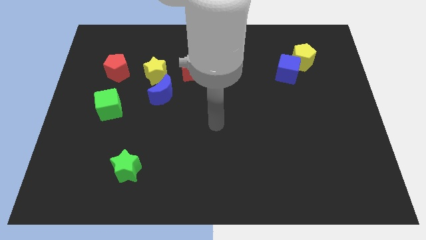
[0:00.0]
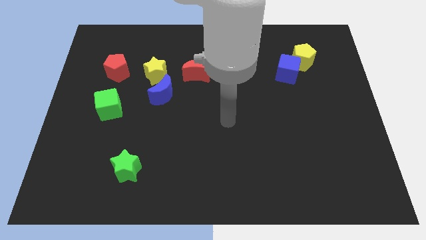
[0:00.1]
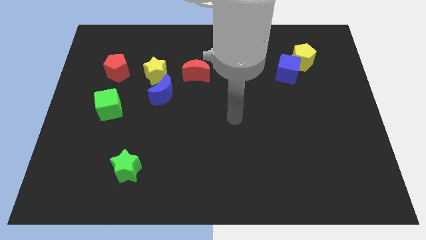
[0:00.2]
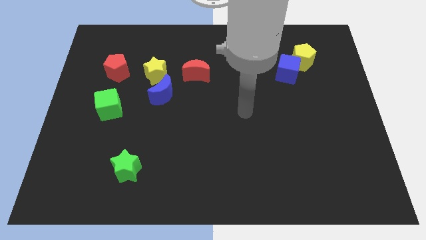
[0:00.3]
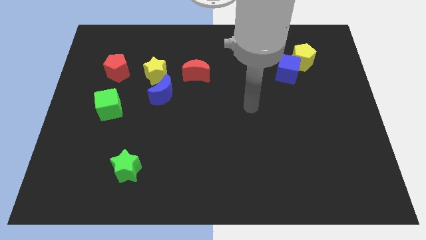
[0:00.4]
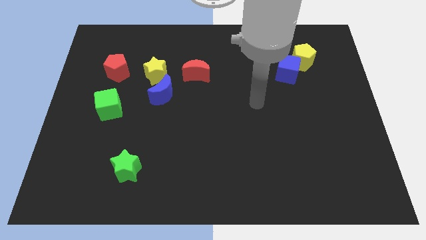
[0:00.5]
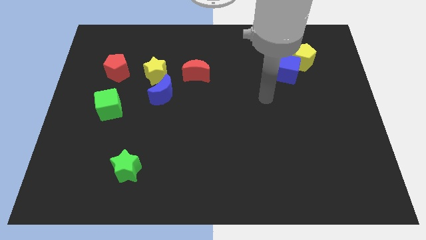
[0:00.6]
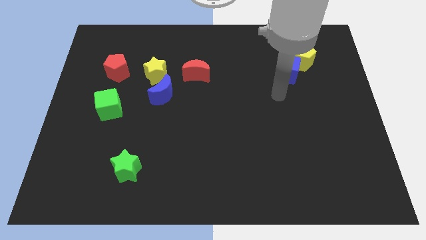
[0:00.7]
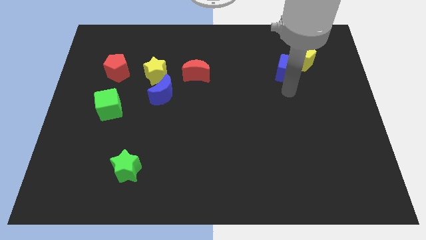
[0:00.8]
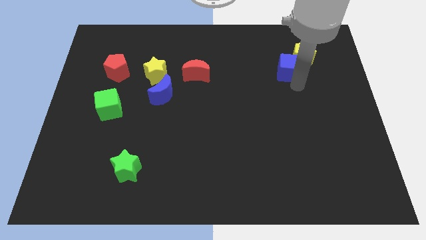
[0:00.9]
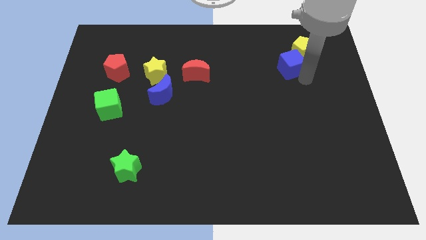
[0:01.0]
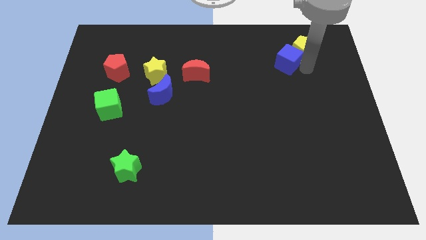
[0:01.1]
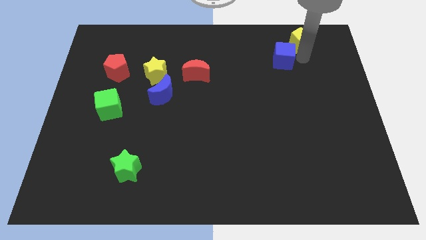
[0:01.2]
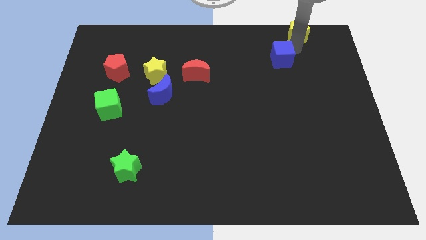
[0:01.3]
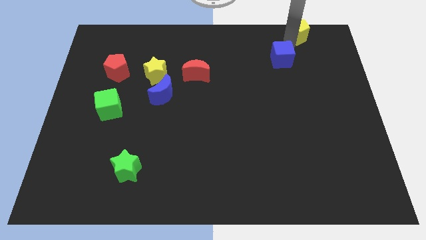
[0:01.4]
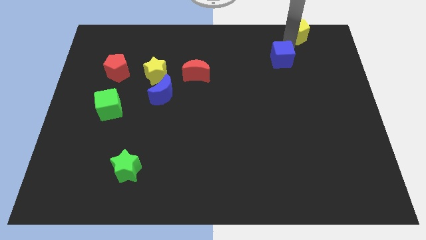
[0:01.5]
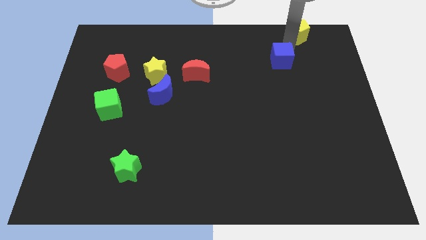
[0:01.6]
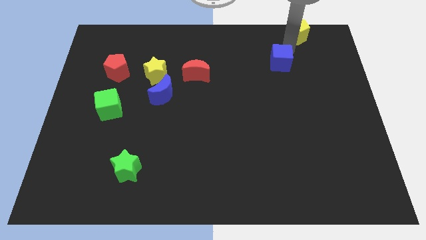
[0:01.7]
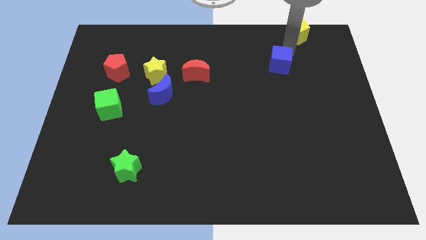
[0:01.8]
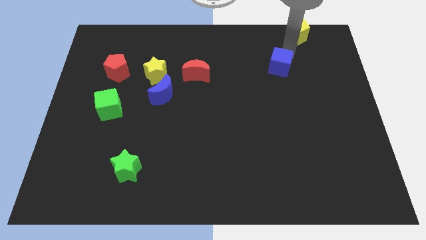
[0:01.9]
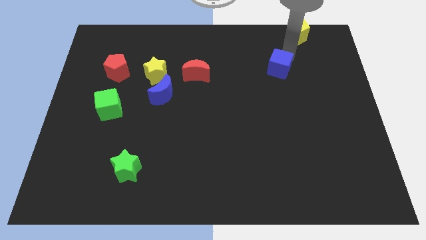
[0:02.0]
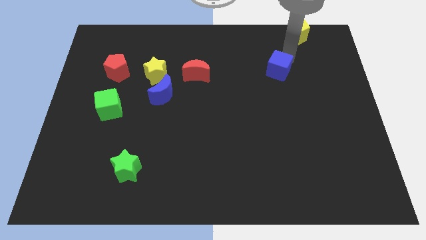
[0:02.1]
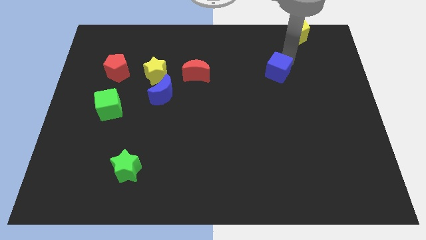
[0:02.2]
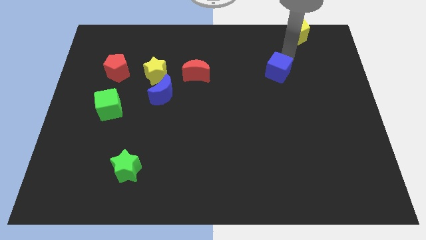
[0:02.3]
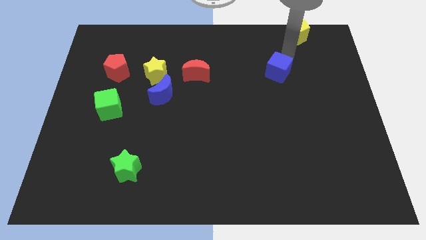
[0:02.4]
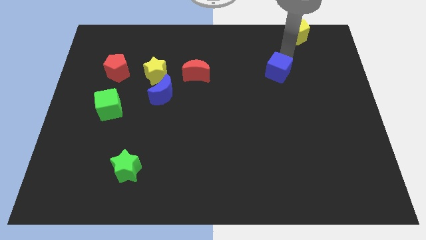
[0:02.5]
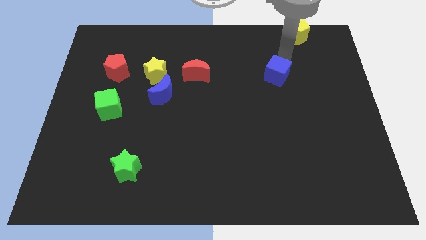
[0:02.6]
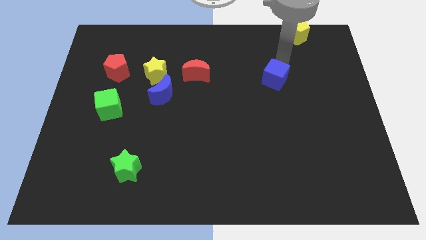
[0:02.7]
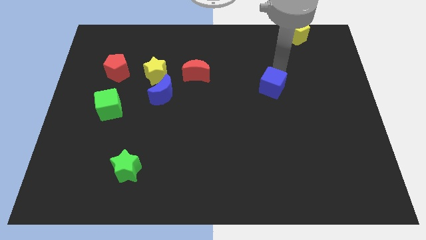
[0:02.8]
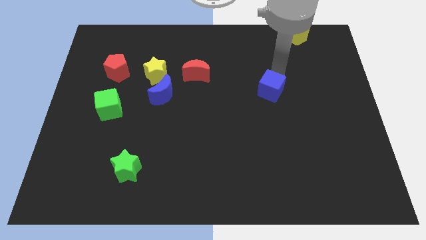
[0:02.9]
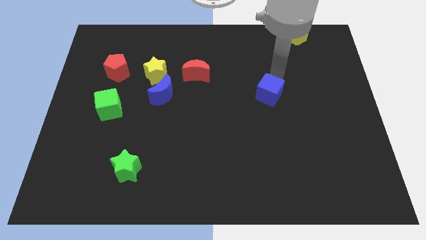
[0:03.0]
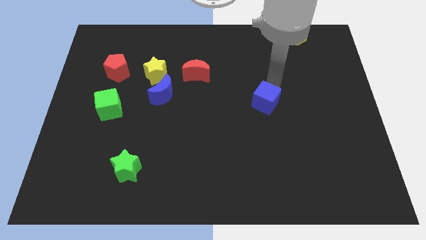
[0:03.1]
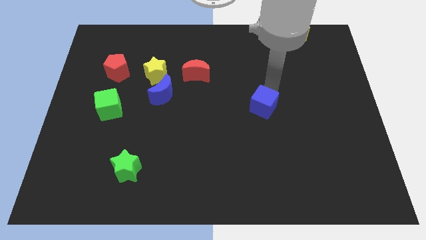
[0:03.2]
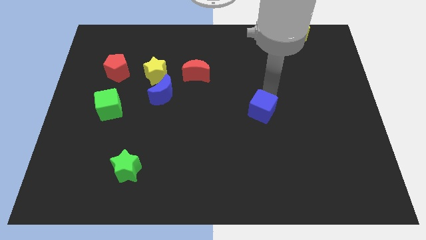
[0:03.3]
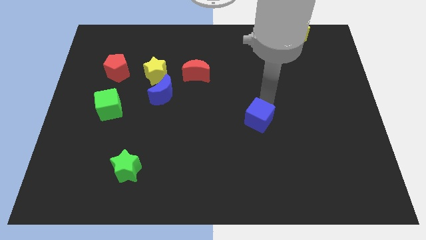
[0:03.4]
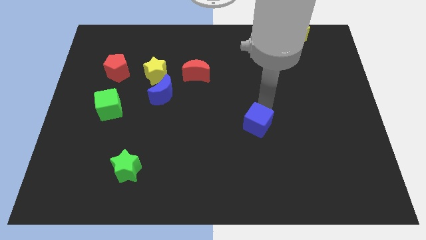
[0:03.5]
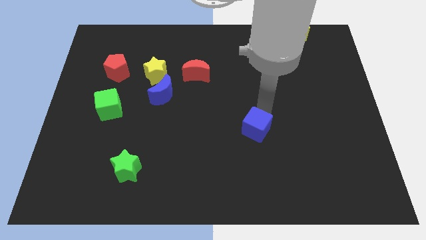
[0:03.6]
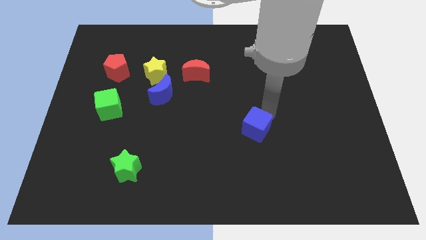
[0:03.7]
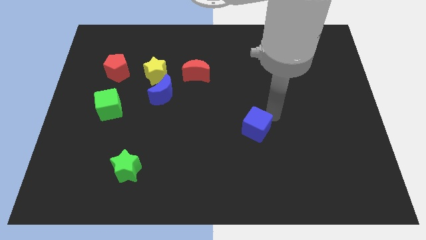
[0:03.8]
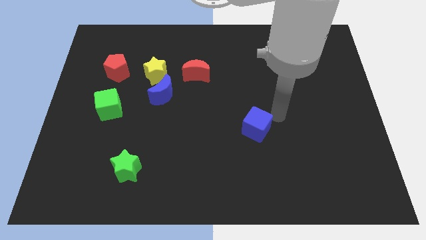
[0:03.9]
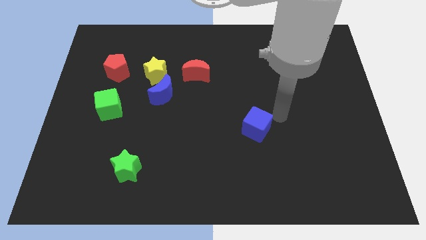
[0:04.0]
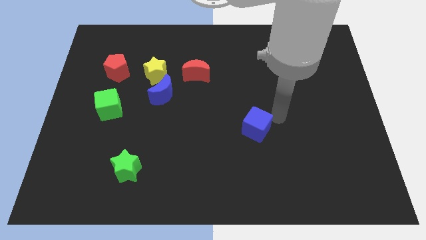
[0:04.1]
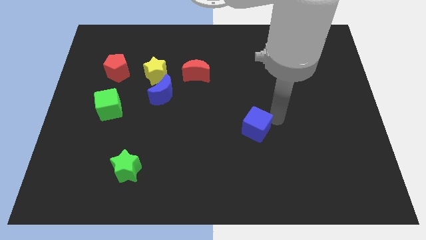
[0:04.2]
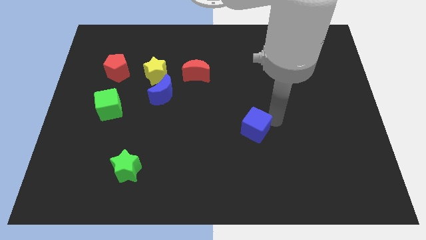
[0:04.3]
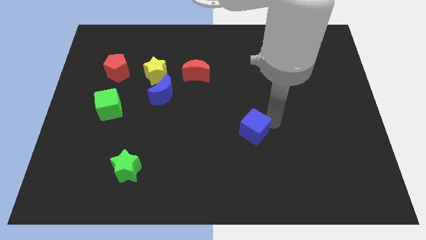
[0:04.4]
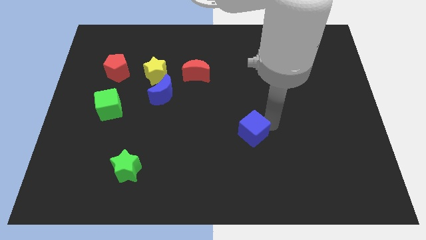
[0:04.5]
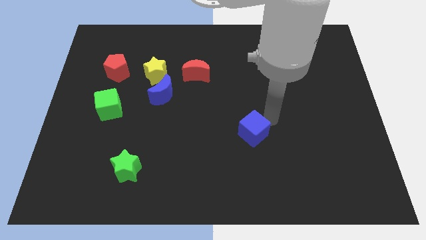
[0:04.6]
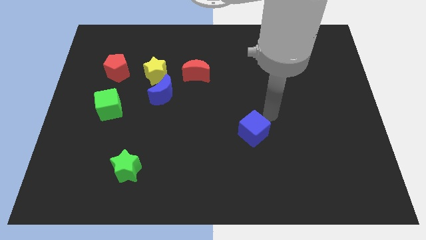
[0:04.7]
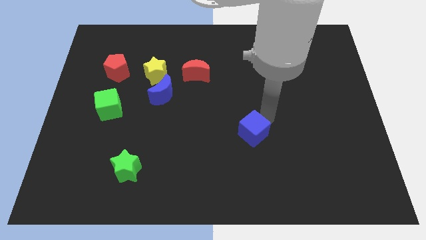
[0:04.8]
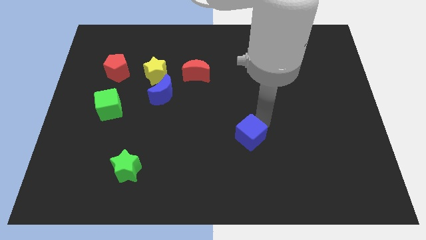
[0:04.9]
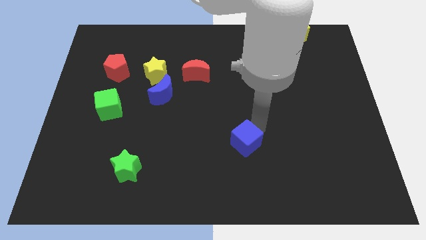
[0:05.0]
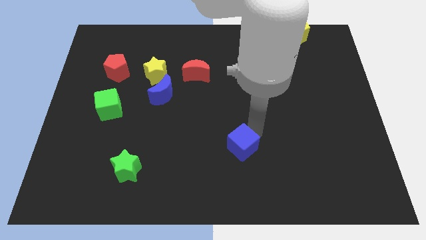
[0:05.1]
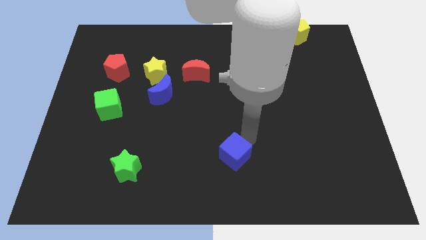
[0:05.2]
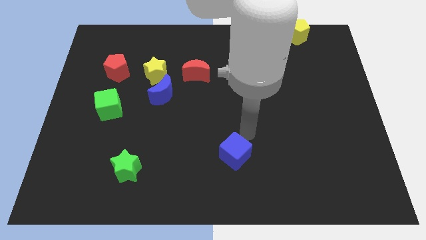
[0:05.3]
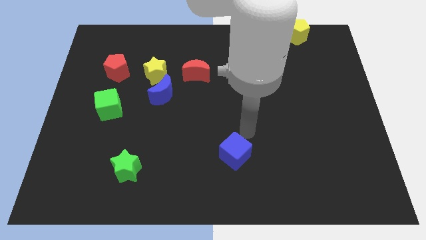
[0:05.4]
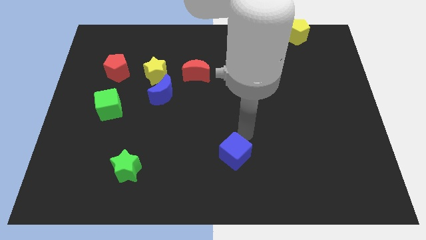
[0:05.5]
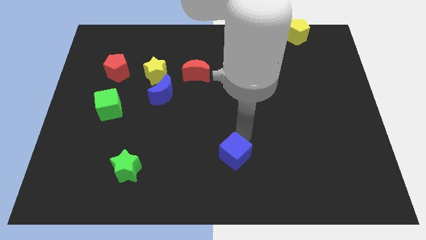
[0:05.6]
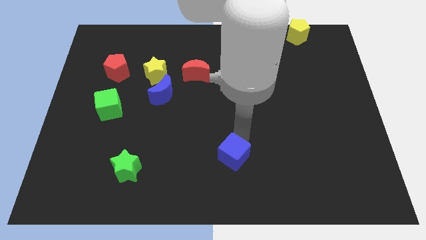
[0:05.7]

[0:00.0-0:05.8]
move the blue cube to the bottom

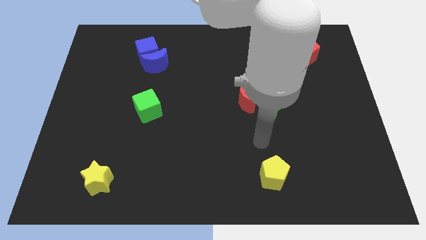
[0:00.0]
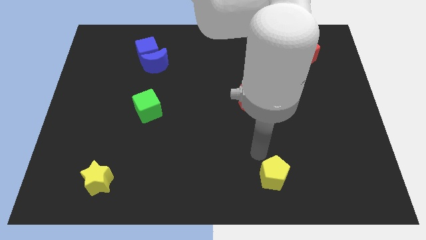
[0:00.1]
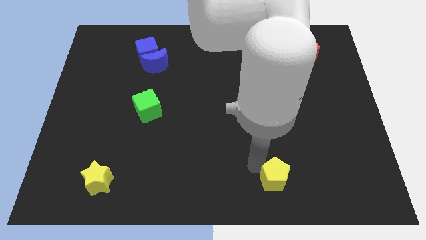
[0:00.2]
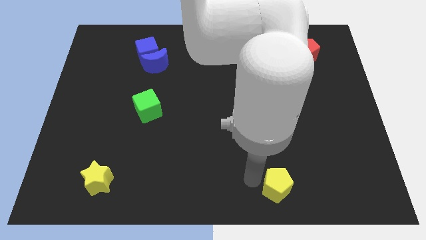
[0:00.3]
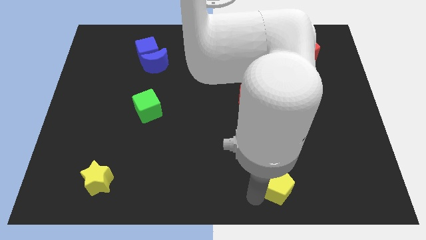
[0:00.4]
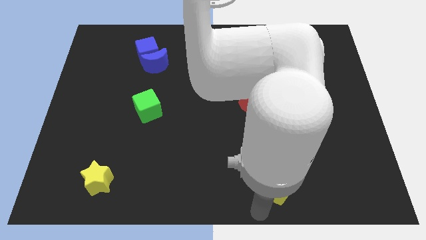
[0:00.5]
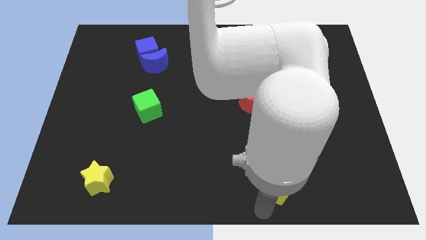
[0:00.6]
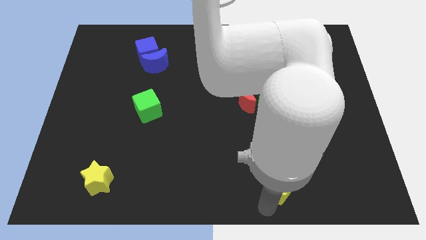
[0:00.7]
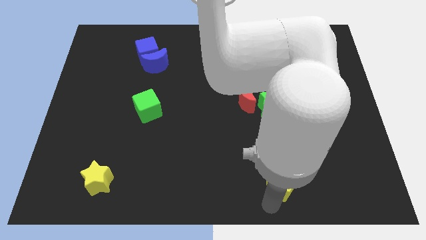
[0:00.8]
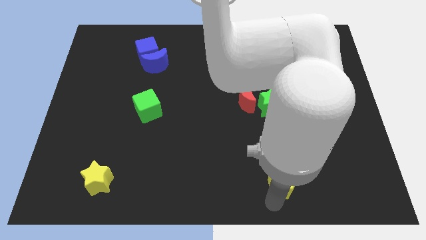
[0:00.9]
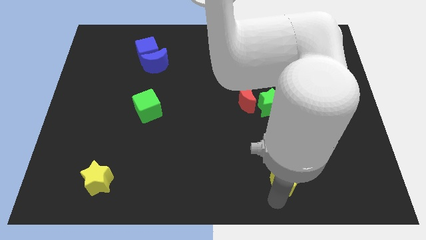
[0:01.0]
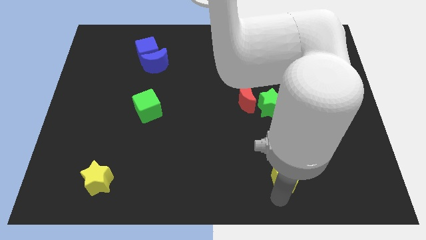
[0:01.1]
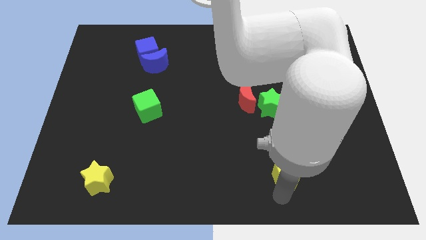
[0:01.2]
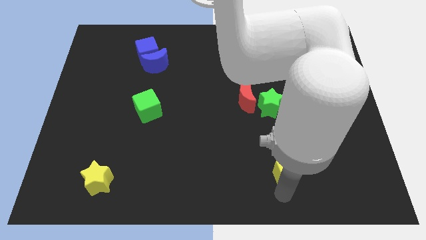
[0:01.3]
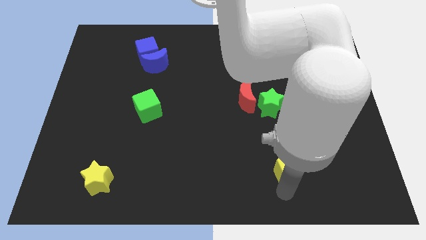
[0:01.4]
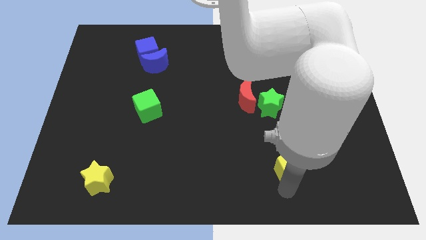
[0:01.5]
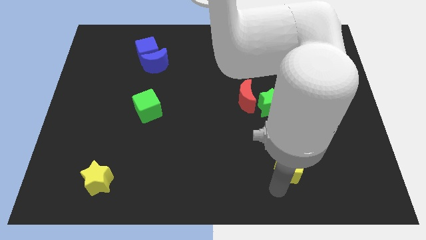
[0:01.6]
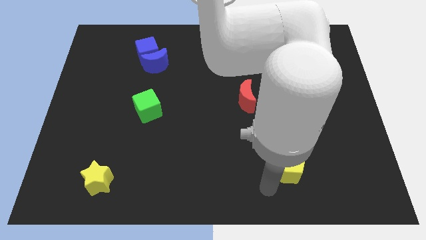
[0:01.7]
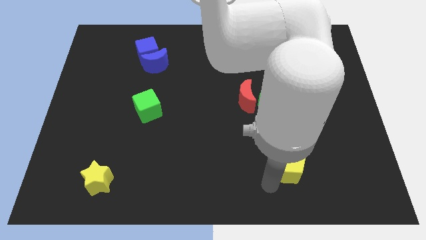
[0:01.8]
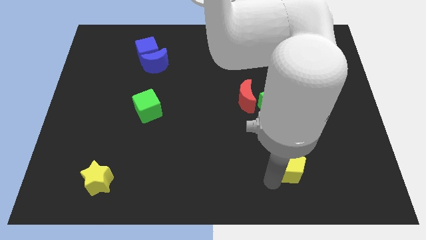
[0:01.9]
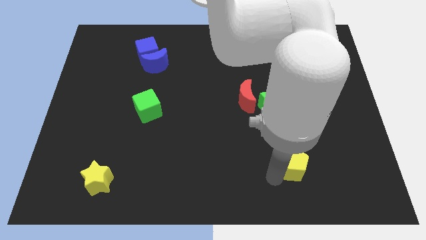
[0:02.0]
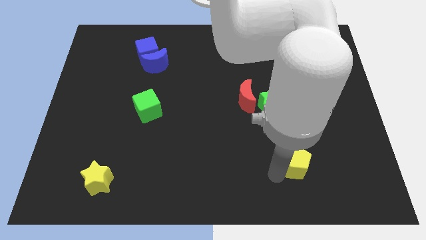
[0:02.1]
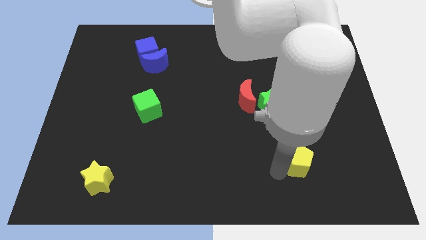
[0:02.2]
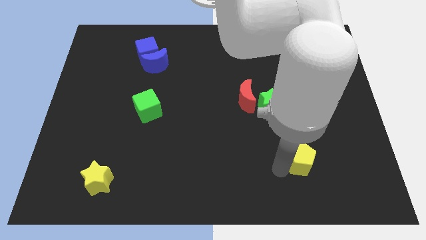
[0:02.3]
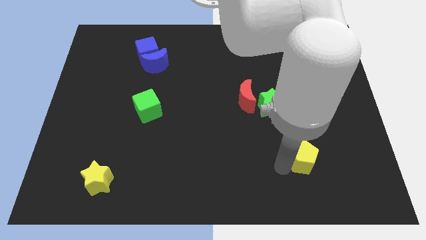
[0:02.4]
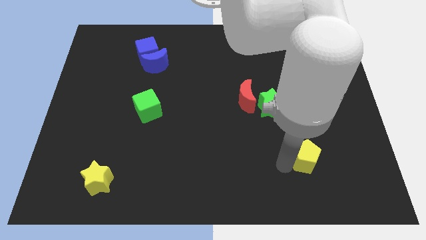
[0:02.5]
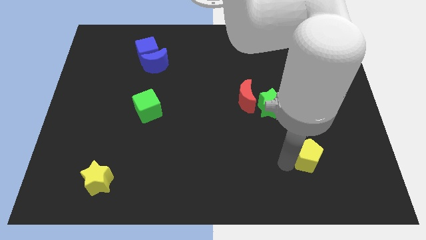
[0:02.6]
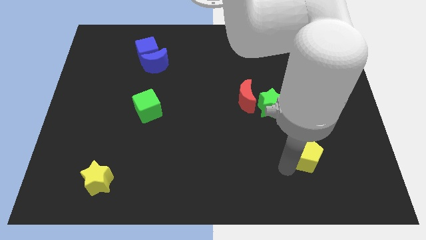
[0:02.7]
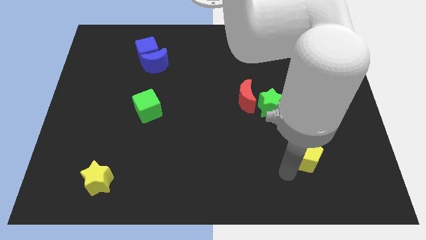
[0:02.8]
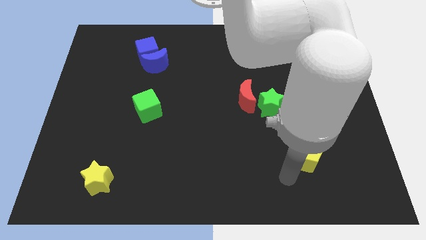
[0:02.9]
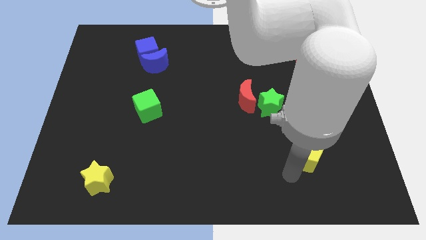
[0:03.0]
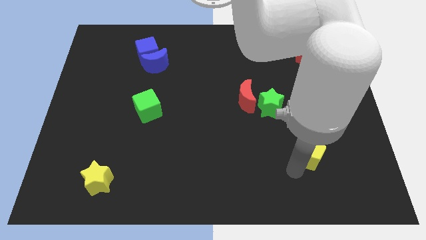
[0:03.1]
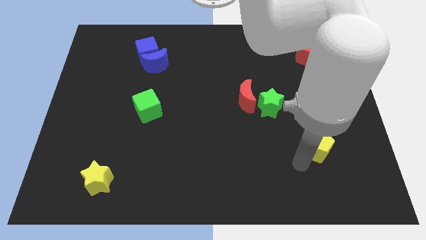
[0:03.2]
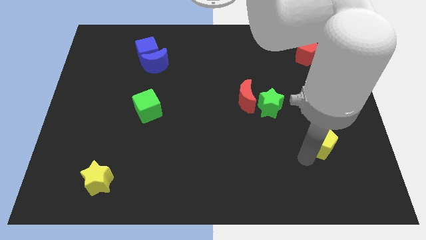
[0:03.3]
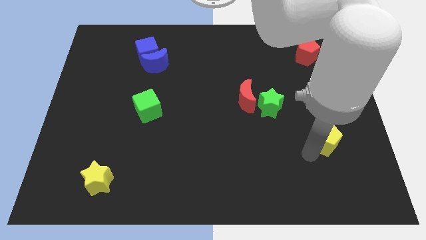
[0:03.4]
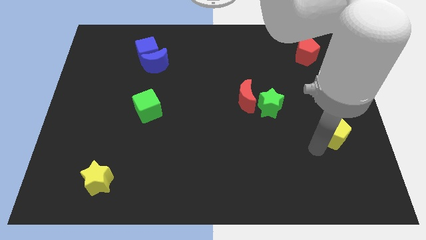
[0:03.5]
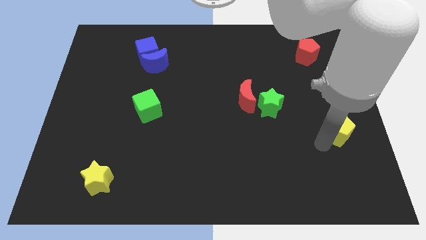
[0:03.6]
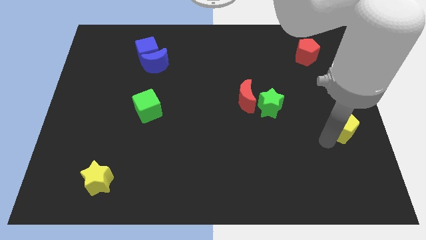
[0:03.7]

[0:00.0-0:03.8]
slide the yellow pentagon to the right side of the board
